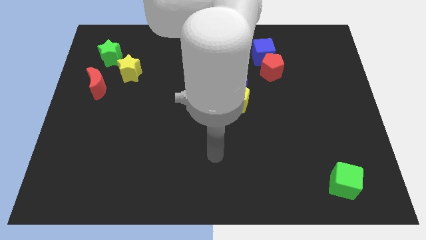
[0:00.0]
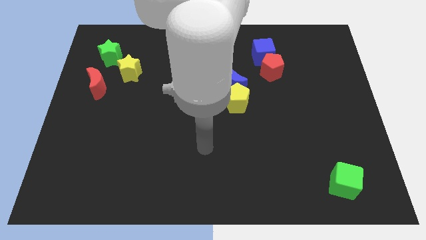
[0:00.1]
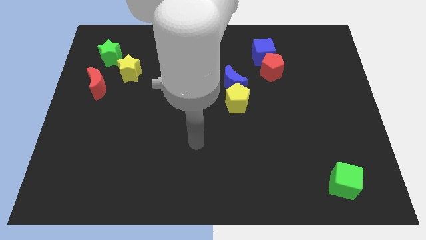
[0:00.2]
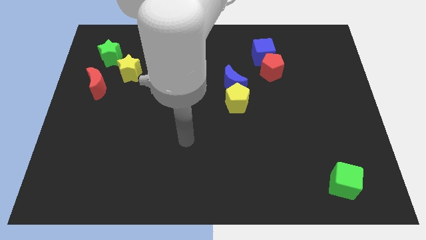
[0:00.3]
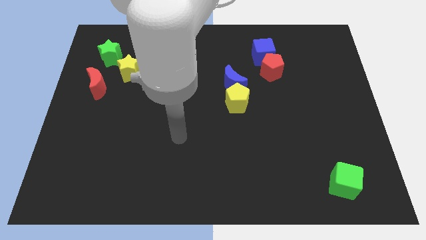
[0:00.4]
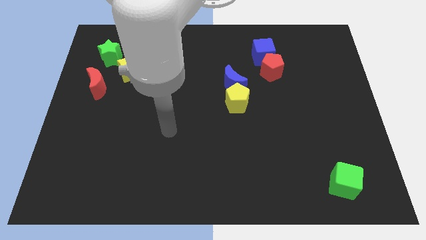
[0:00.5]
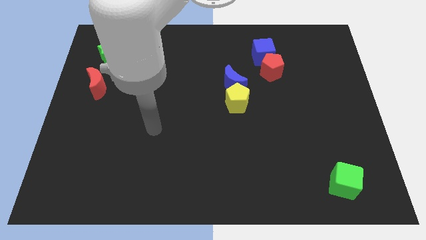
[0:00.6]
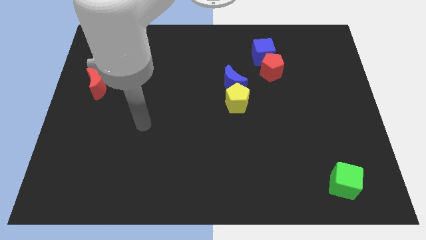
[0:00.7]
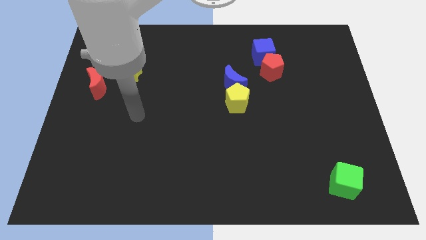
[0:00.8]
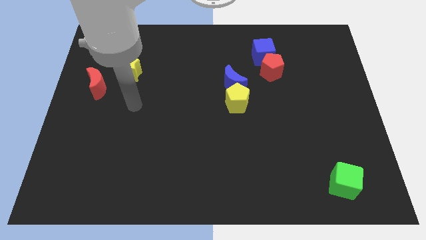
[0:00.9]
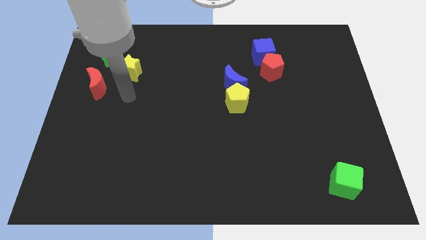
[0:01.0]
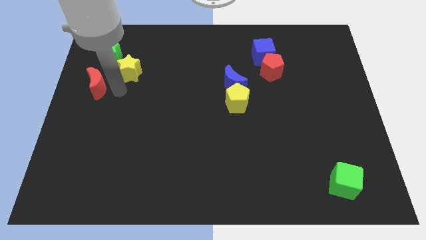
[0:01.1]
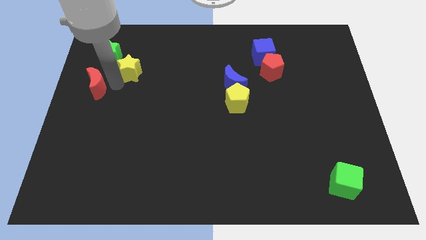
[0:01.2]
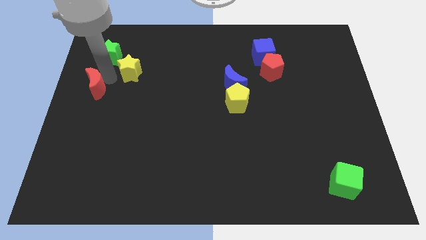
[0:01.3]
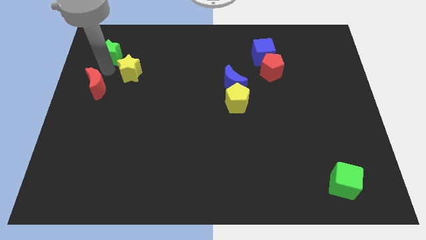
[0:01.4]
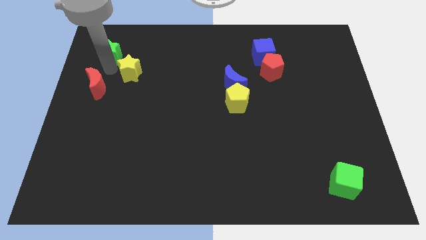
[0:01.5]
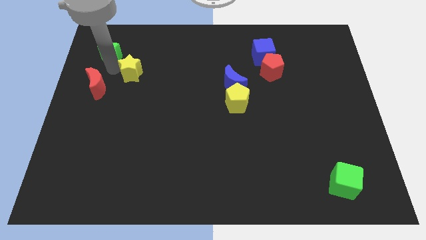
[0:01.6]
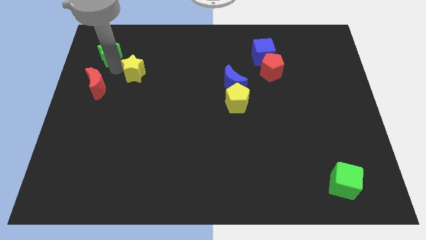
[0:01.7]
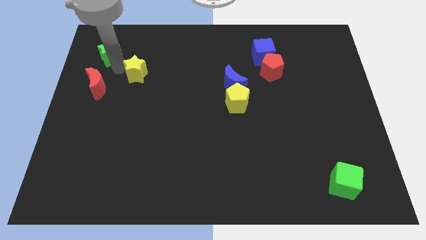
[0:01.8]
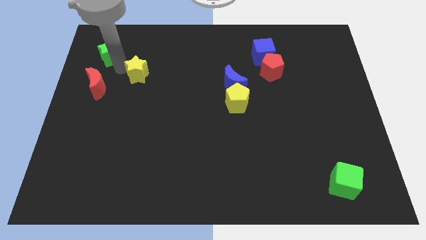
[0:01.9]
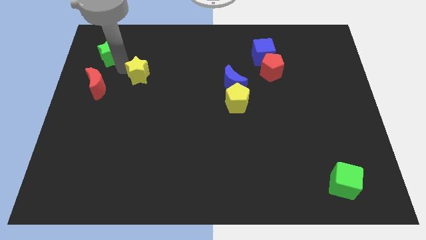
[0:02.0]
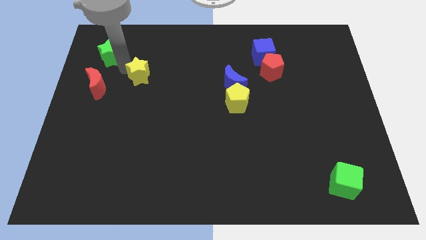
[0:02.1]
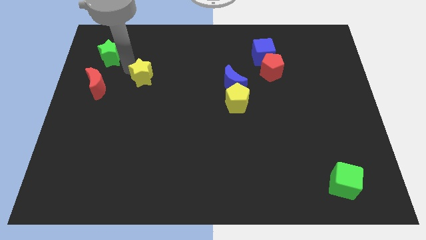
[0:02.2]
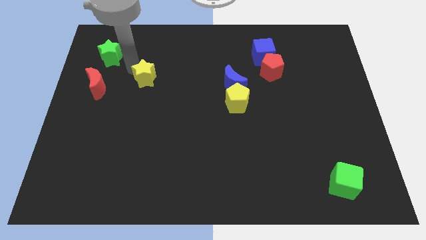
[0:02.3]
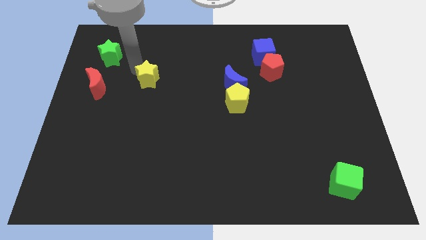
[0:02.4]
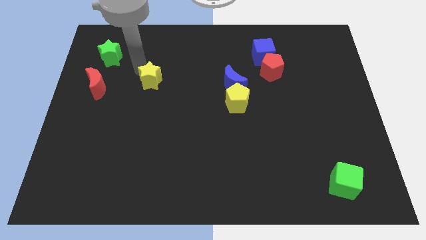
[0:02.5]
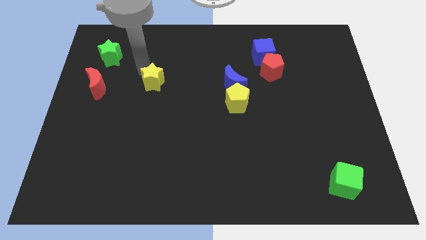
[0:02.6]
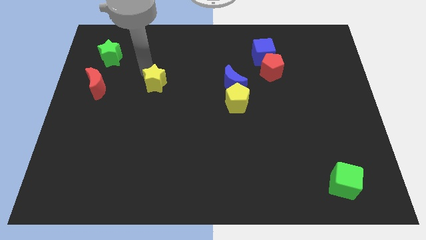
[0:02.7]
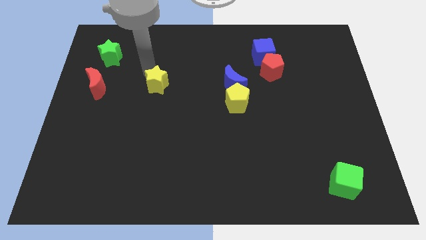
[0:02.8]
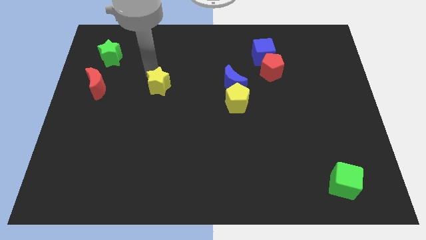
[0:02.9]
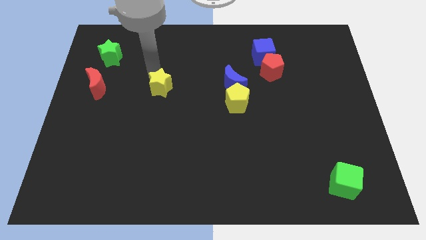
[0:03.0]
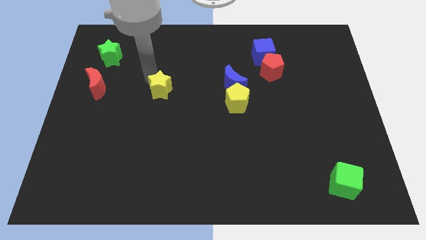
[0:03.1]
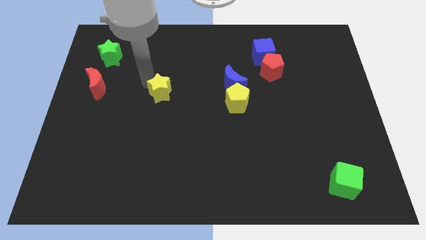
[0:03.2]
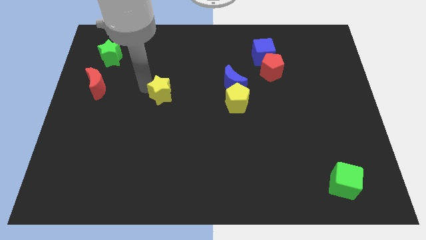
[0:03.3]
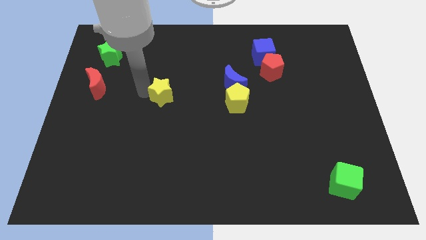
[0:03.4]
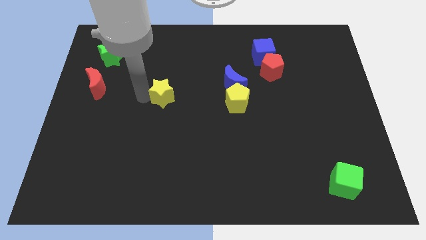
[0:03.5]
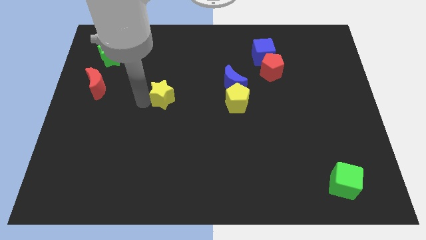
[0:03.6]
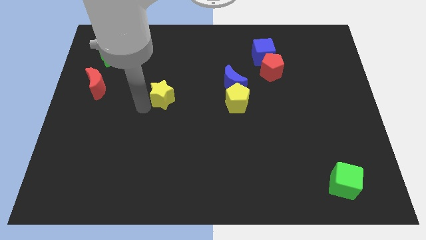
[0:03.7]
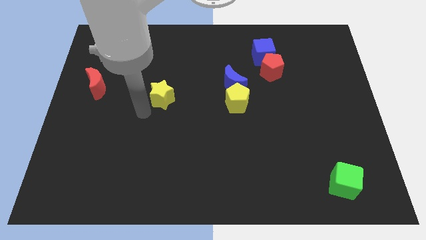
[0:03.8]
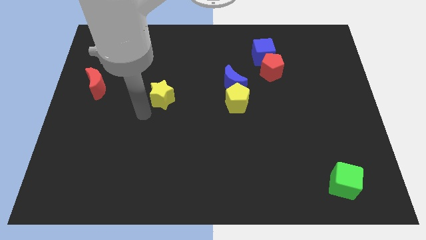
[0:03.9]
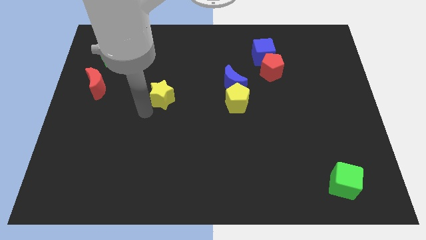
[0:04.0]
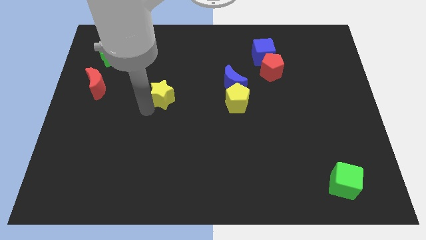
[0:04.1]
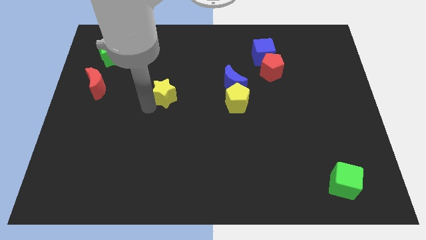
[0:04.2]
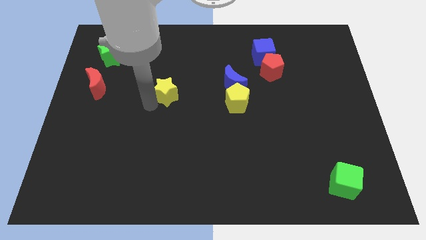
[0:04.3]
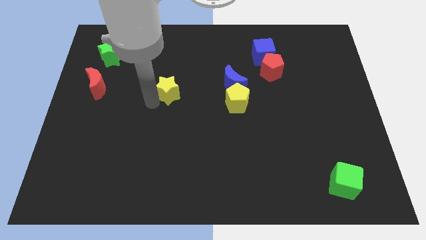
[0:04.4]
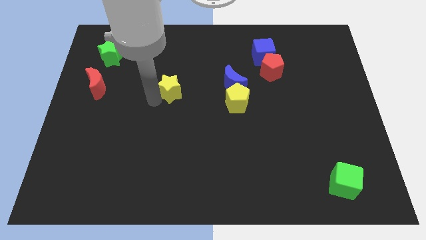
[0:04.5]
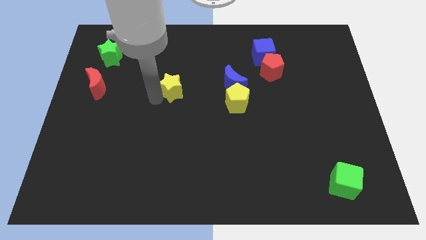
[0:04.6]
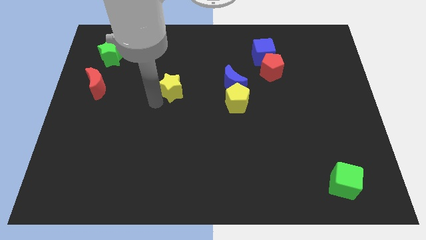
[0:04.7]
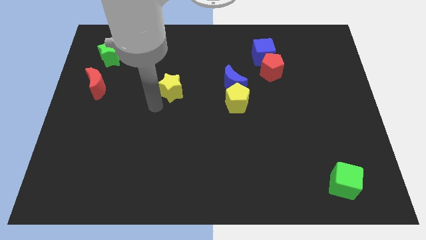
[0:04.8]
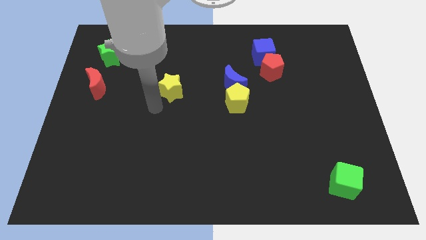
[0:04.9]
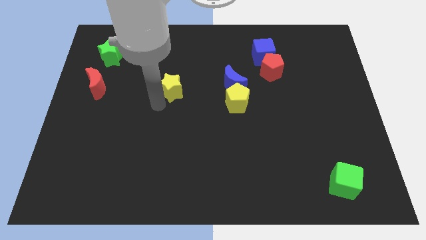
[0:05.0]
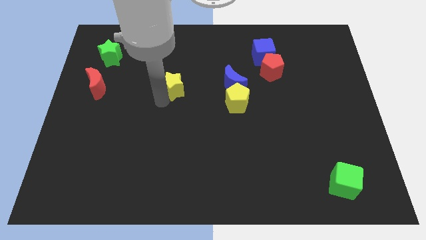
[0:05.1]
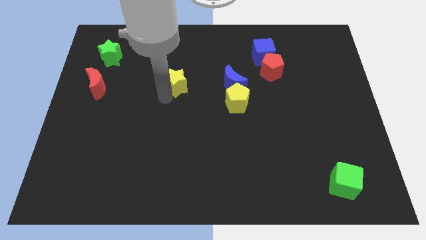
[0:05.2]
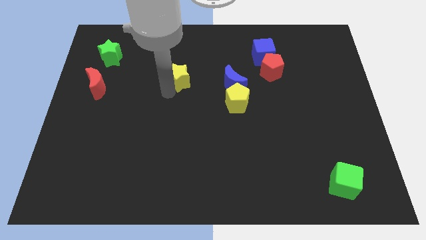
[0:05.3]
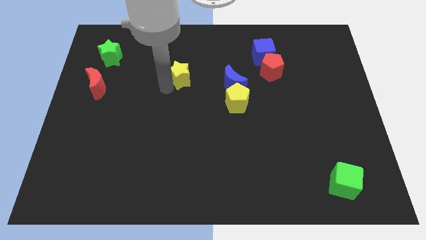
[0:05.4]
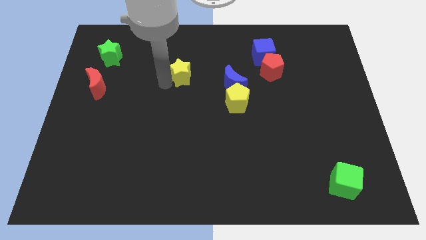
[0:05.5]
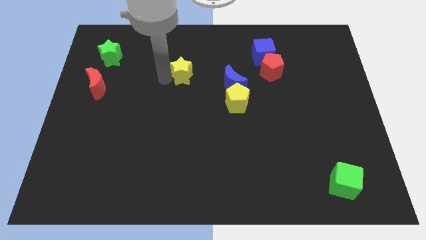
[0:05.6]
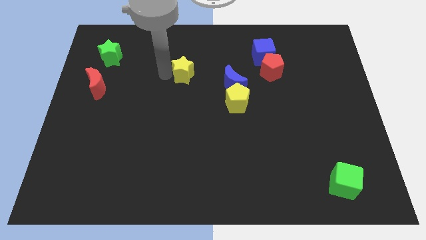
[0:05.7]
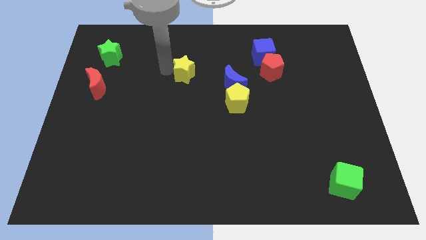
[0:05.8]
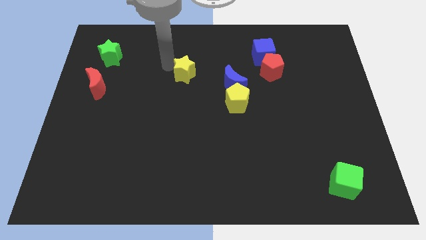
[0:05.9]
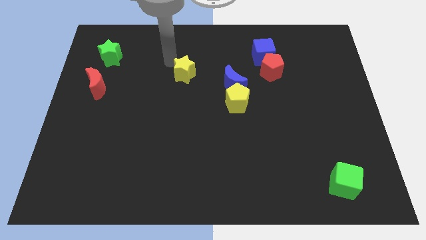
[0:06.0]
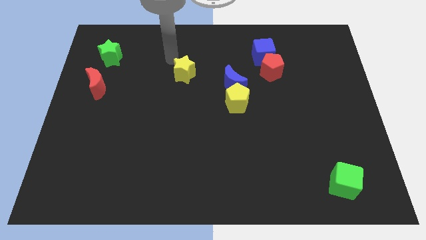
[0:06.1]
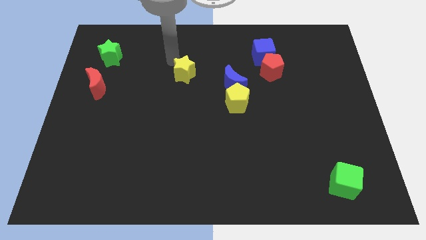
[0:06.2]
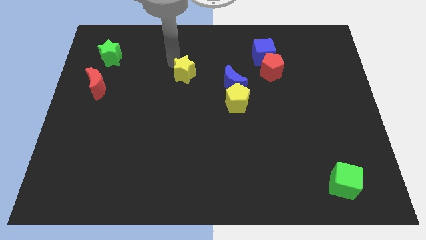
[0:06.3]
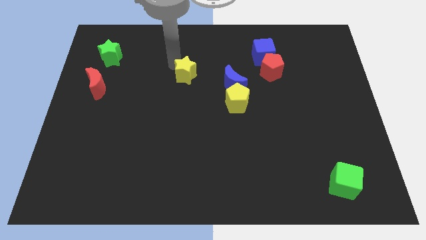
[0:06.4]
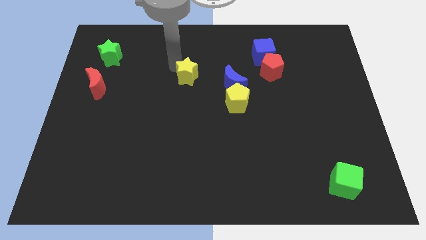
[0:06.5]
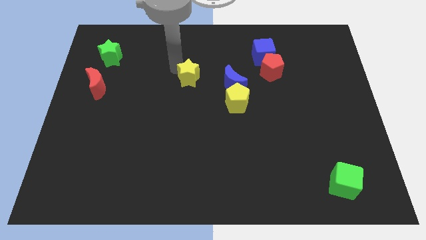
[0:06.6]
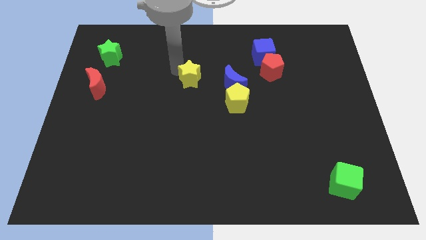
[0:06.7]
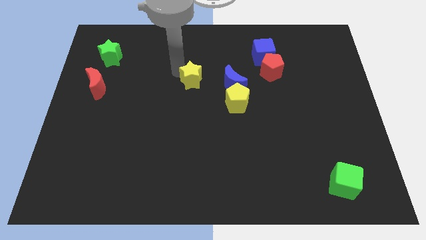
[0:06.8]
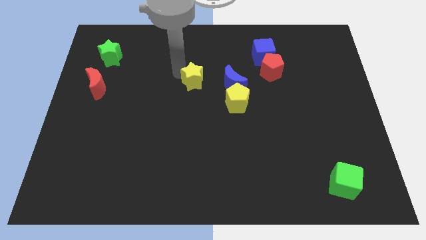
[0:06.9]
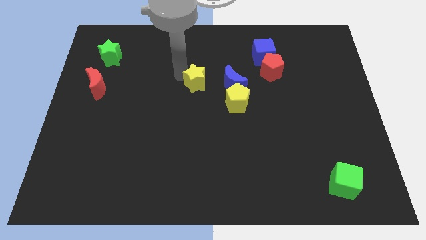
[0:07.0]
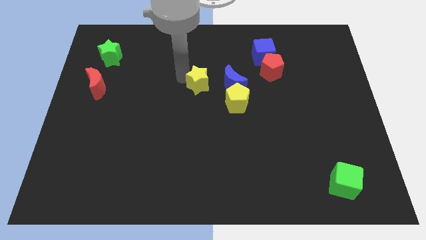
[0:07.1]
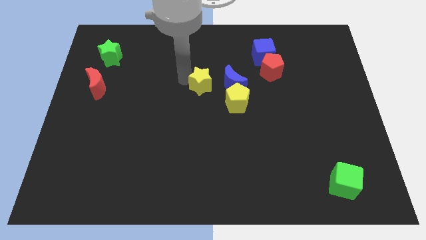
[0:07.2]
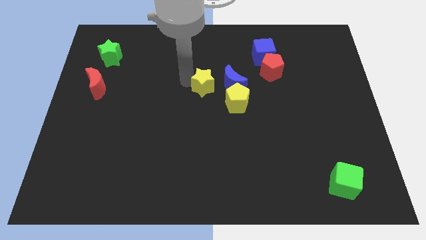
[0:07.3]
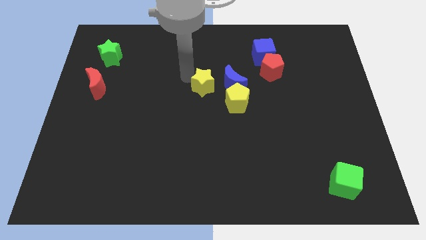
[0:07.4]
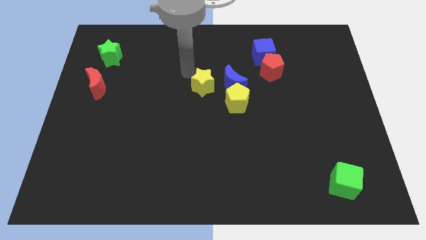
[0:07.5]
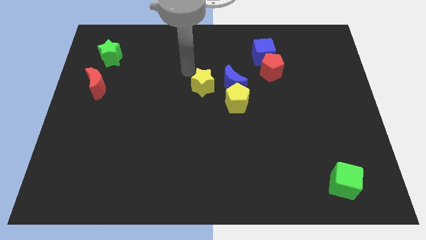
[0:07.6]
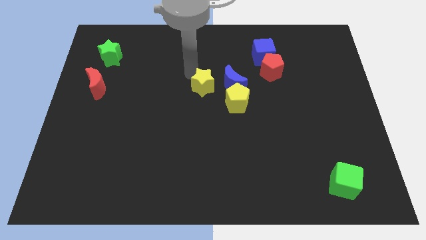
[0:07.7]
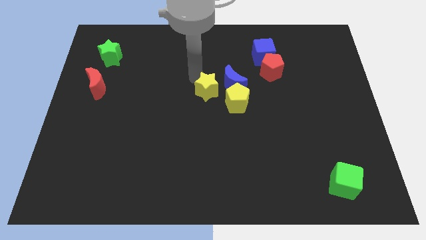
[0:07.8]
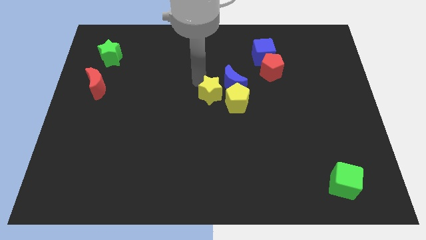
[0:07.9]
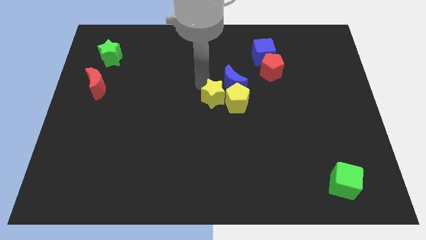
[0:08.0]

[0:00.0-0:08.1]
slide the yellow star next to the yellow pentagon
